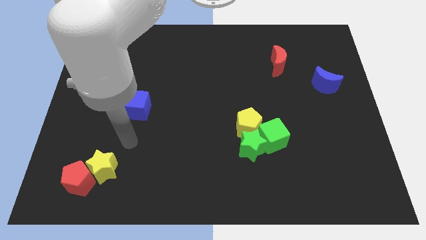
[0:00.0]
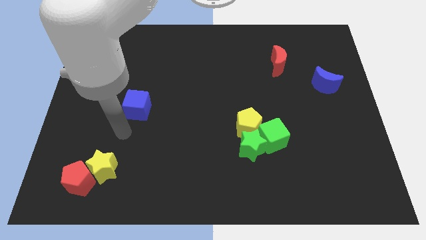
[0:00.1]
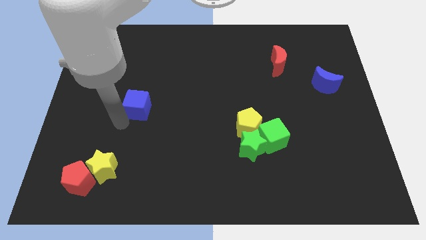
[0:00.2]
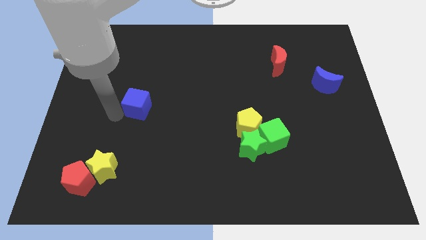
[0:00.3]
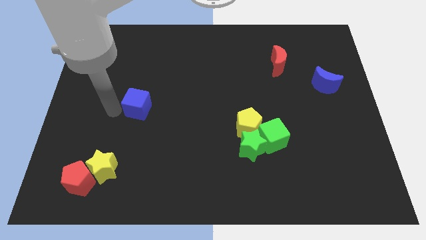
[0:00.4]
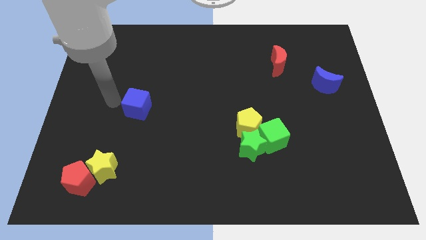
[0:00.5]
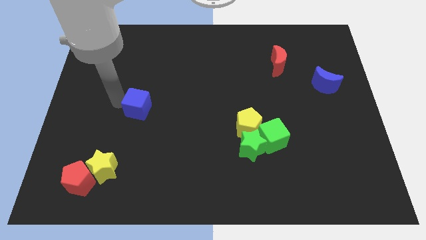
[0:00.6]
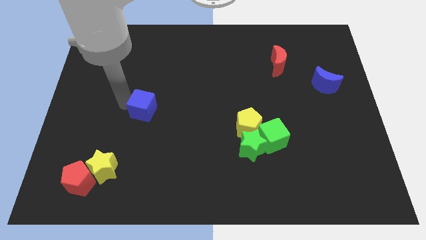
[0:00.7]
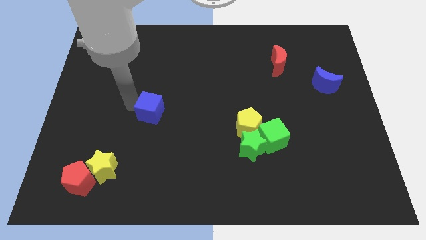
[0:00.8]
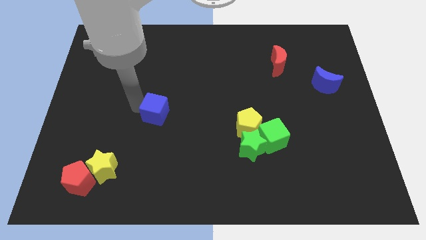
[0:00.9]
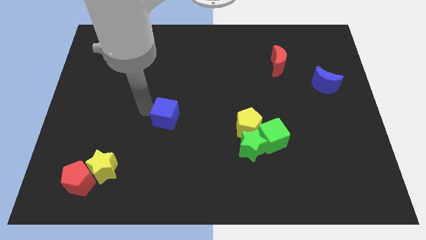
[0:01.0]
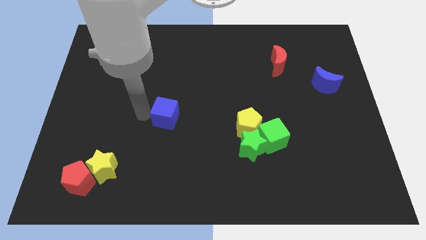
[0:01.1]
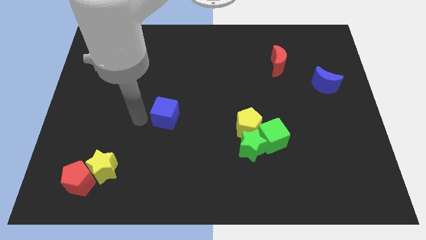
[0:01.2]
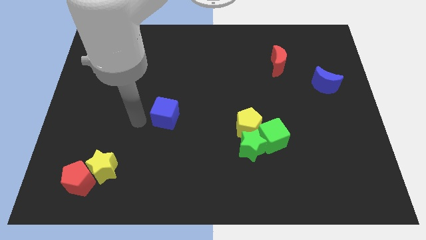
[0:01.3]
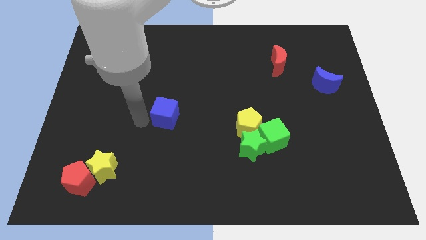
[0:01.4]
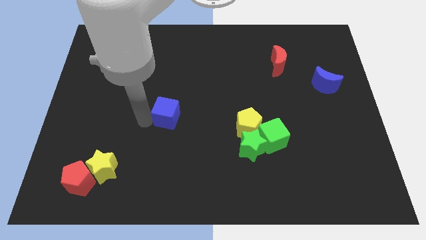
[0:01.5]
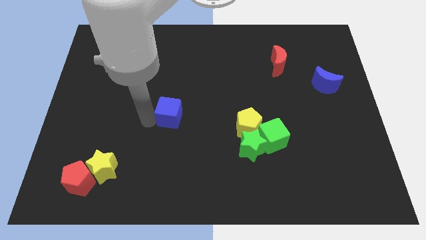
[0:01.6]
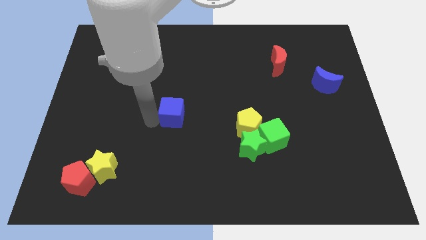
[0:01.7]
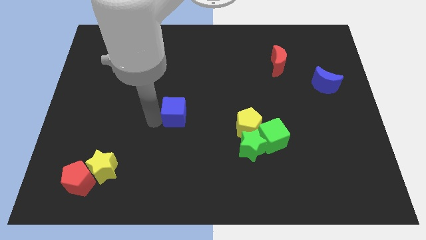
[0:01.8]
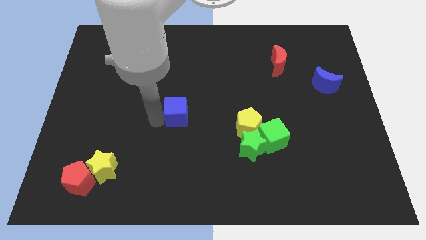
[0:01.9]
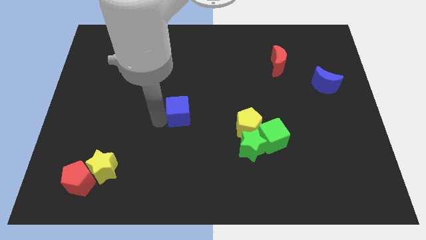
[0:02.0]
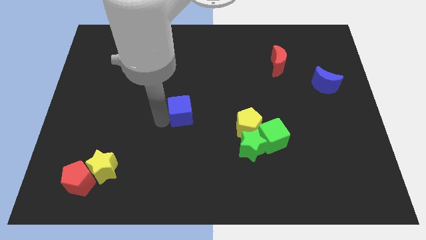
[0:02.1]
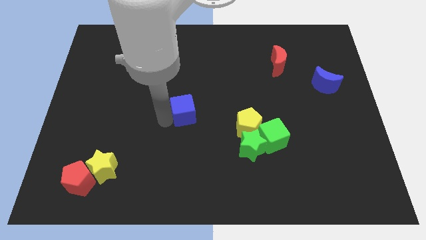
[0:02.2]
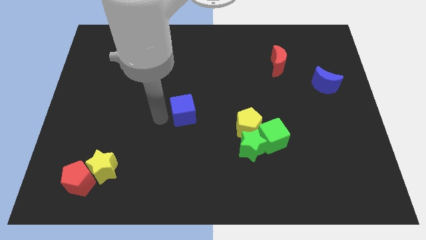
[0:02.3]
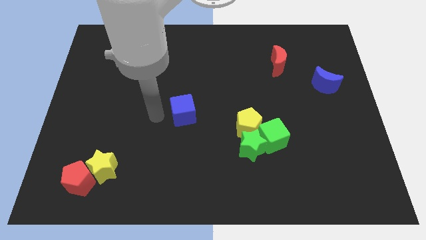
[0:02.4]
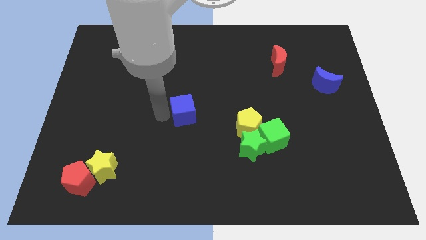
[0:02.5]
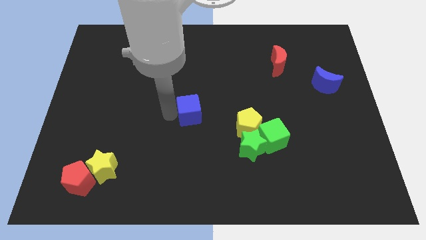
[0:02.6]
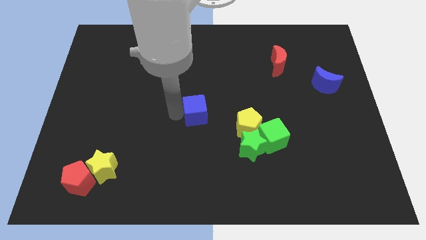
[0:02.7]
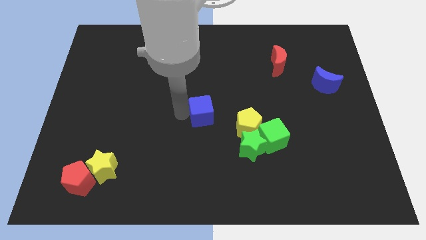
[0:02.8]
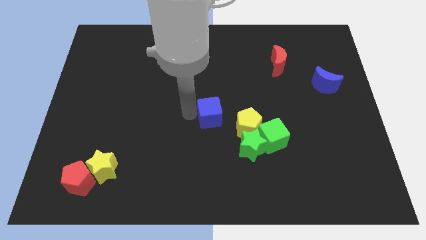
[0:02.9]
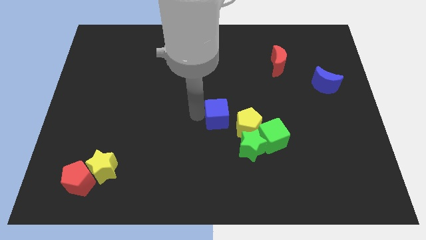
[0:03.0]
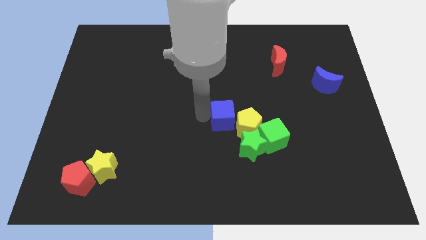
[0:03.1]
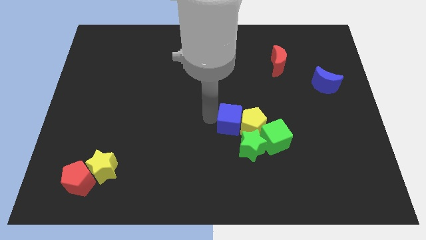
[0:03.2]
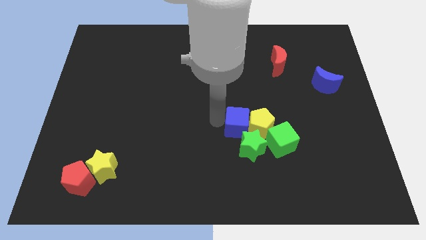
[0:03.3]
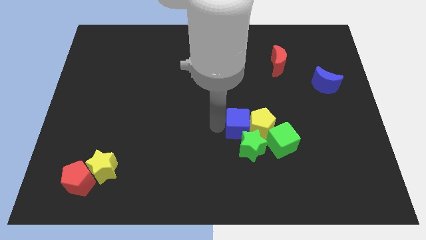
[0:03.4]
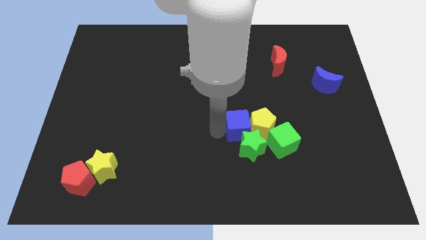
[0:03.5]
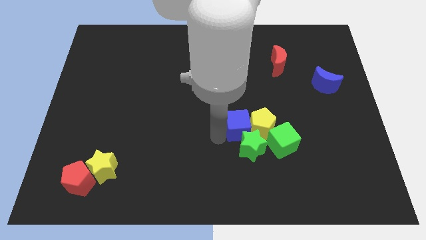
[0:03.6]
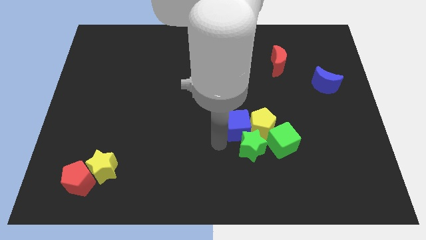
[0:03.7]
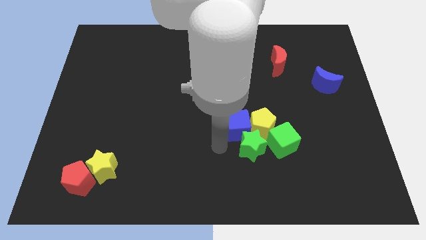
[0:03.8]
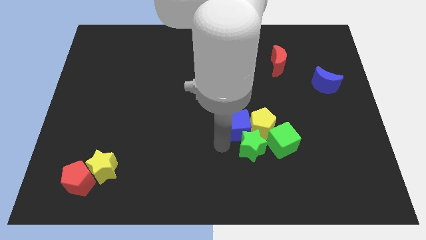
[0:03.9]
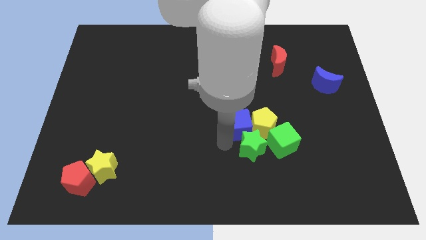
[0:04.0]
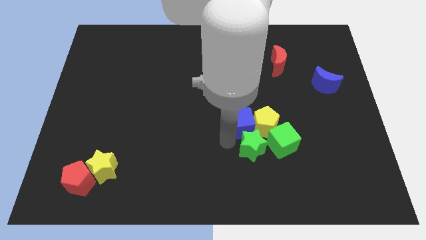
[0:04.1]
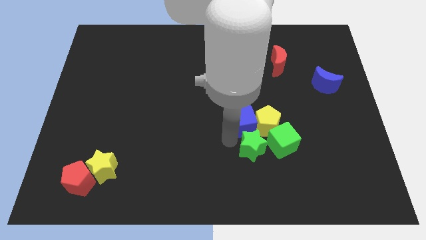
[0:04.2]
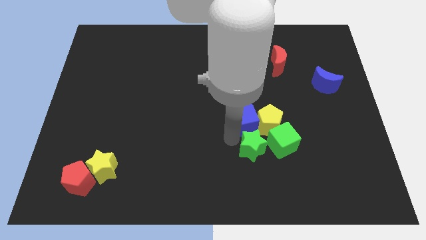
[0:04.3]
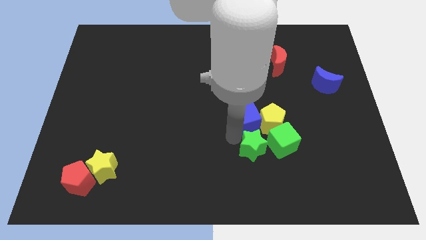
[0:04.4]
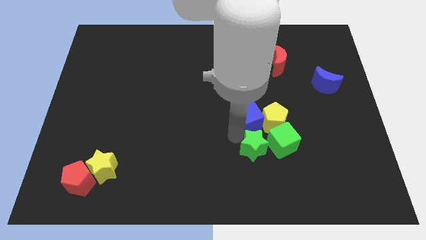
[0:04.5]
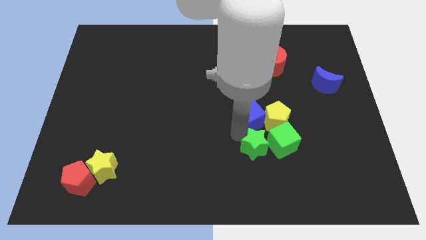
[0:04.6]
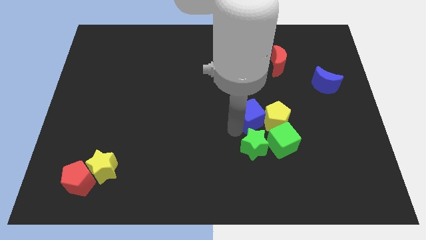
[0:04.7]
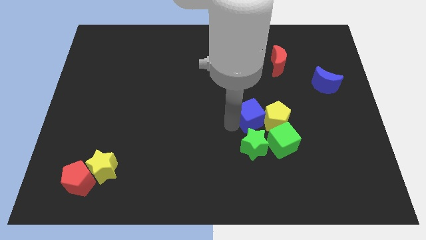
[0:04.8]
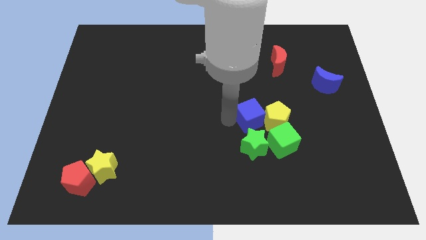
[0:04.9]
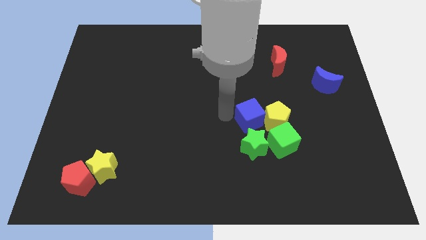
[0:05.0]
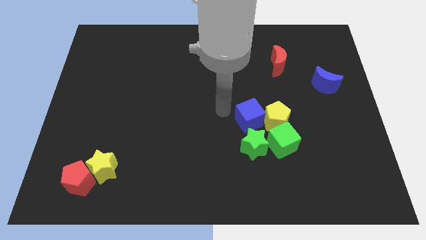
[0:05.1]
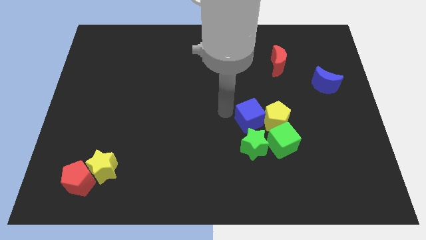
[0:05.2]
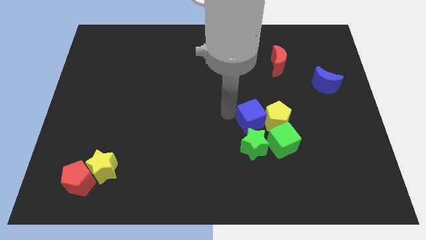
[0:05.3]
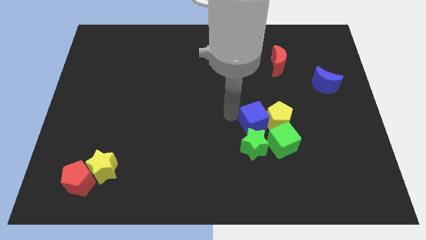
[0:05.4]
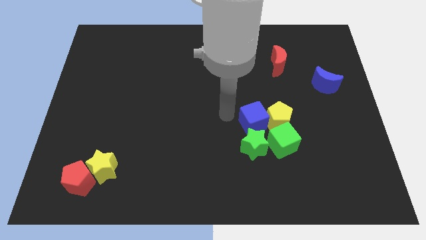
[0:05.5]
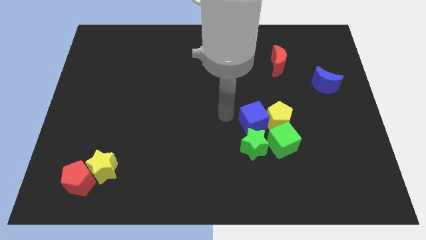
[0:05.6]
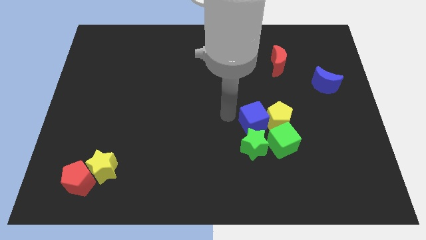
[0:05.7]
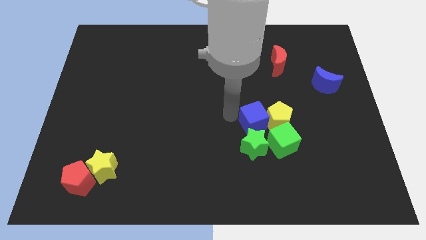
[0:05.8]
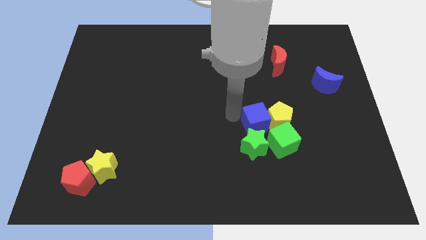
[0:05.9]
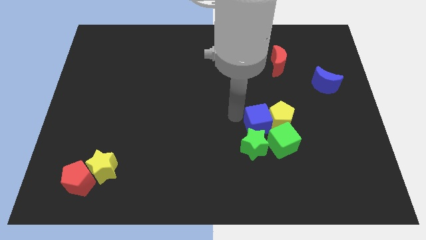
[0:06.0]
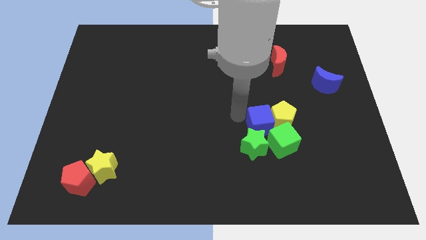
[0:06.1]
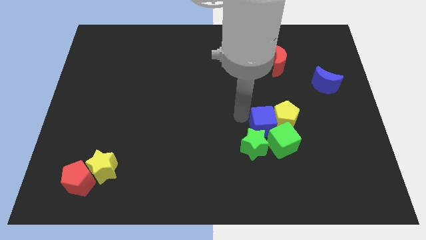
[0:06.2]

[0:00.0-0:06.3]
put the blue cube close to the green cube
